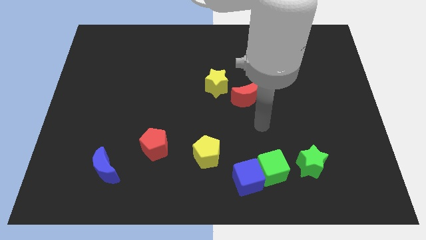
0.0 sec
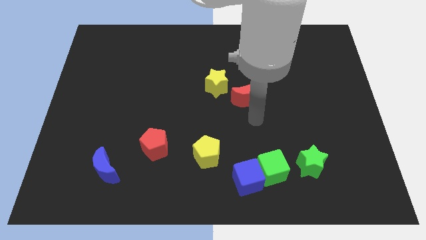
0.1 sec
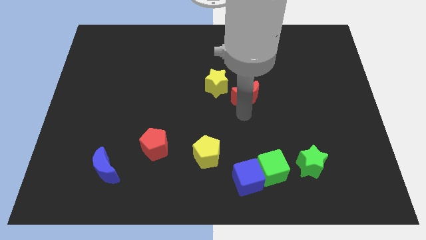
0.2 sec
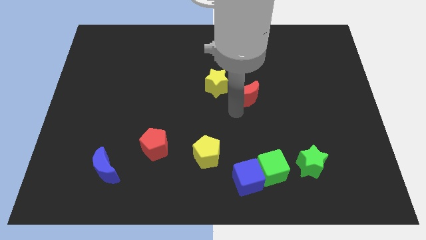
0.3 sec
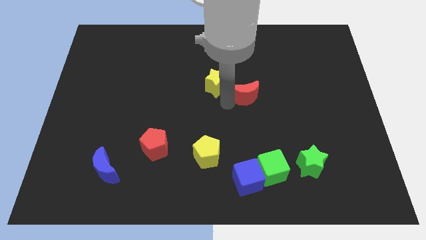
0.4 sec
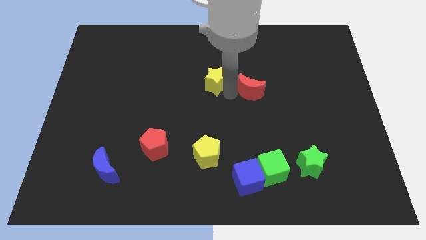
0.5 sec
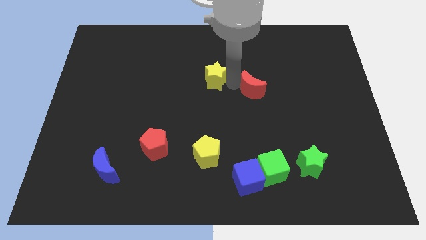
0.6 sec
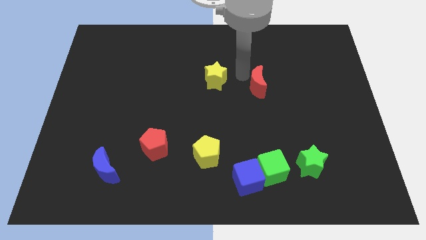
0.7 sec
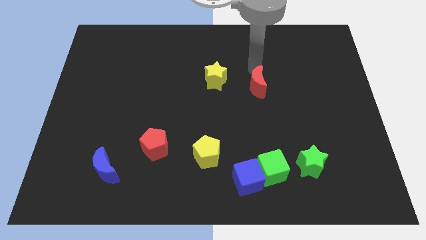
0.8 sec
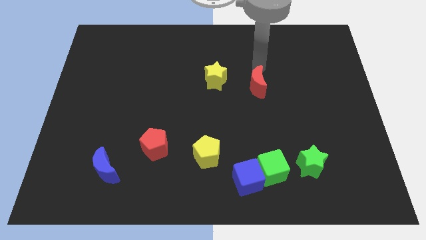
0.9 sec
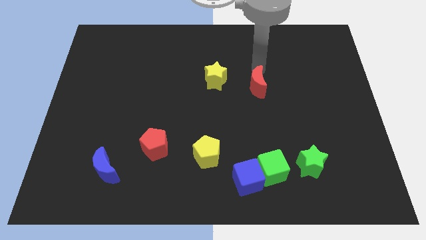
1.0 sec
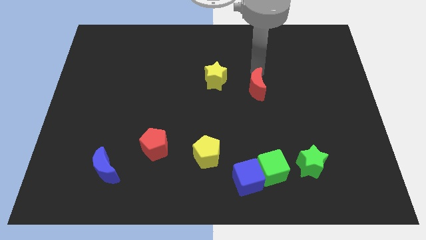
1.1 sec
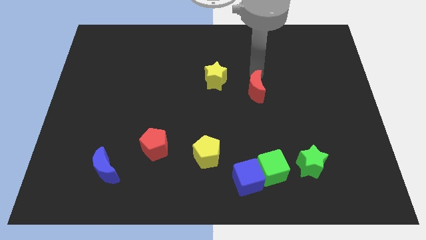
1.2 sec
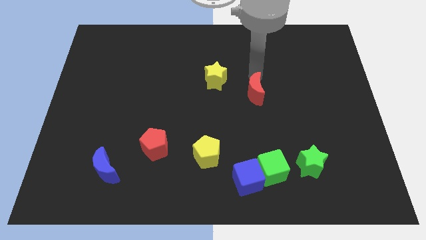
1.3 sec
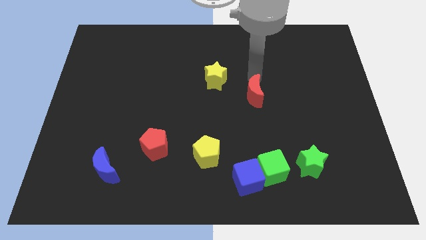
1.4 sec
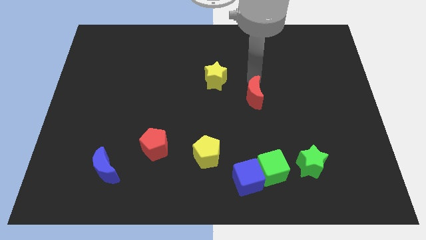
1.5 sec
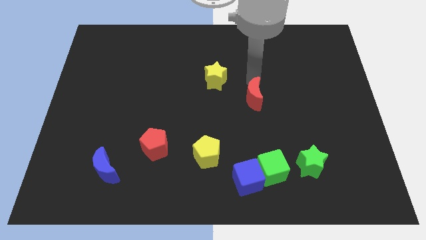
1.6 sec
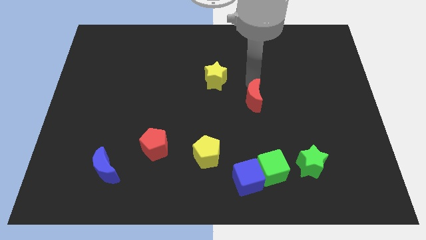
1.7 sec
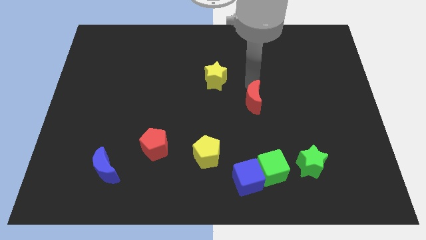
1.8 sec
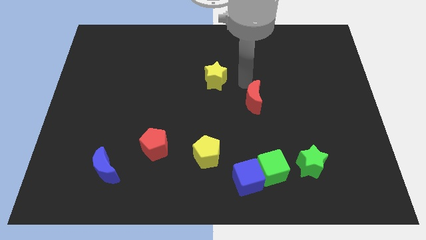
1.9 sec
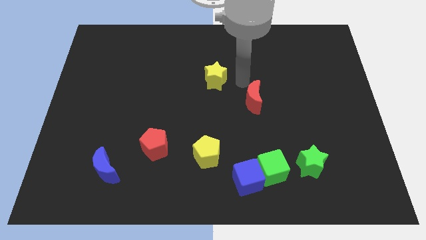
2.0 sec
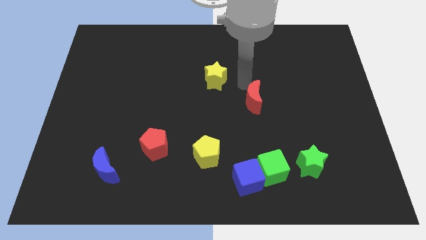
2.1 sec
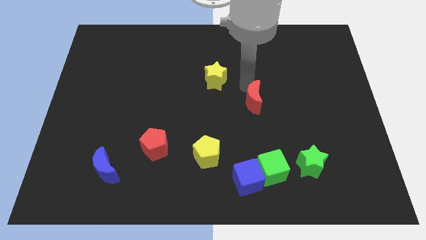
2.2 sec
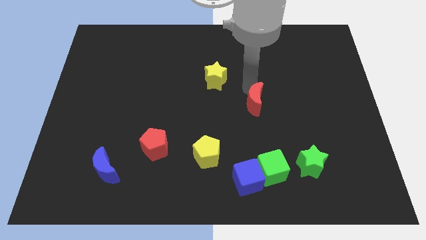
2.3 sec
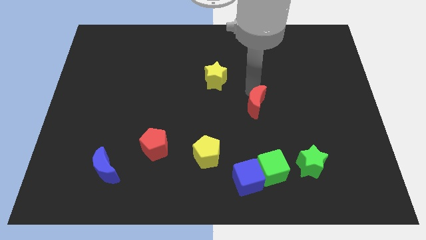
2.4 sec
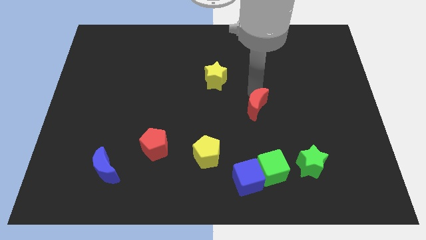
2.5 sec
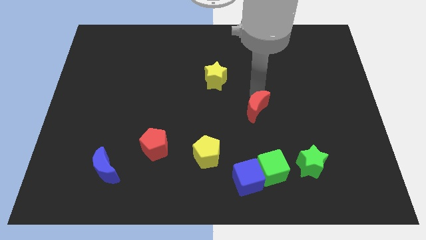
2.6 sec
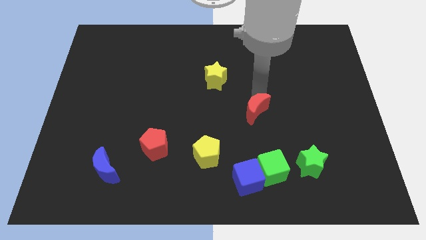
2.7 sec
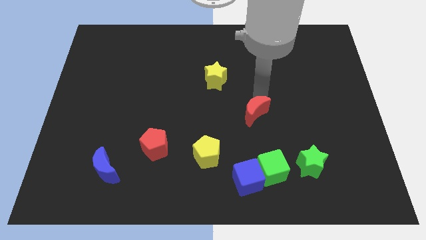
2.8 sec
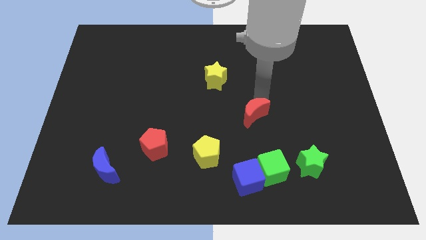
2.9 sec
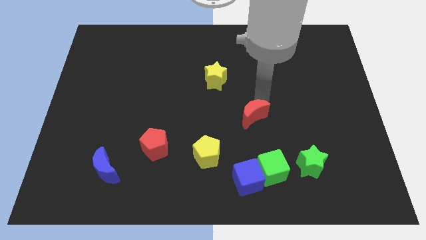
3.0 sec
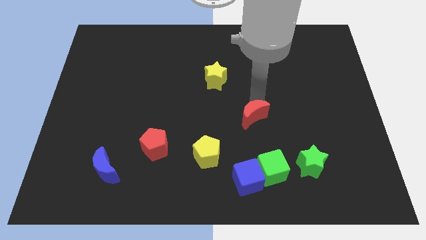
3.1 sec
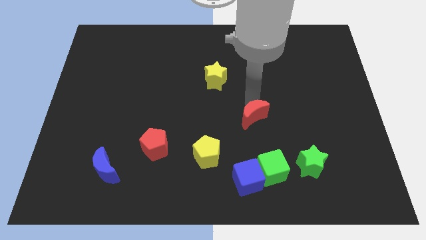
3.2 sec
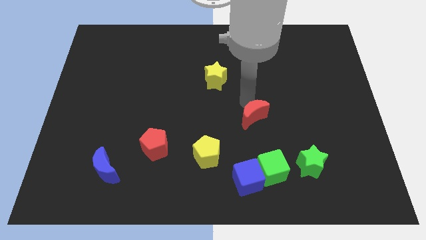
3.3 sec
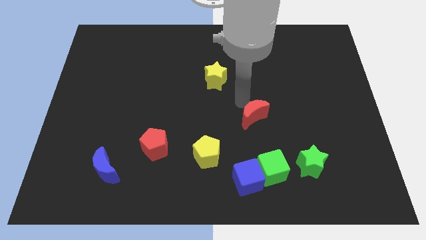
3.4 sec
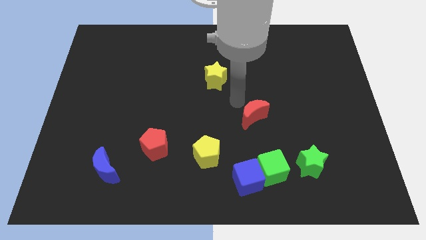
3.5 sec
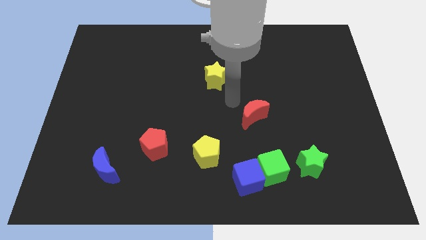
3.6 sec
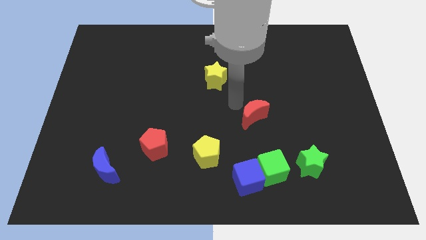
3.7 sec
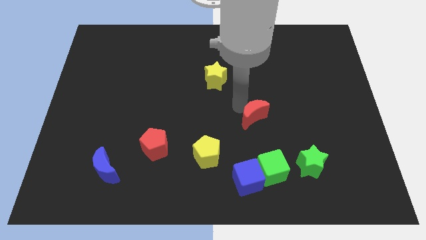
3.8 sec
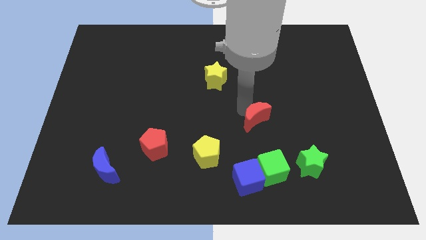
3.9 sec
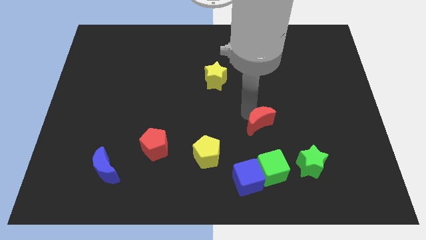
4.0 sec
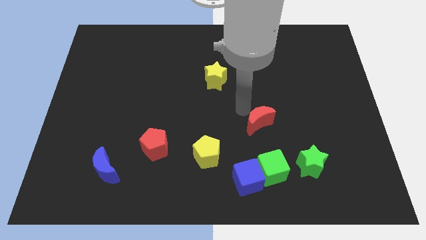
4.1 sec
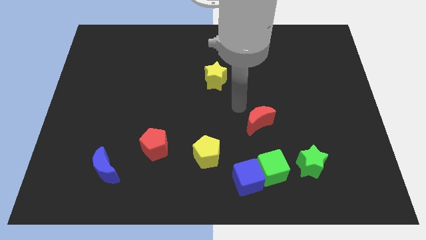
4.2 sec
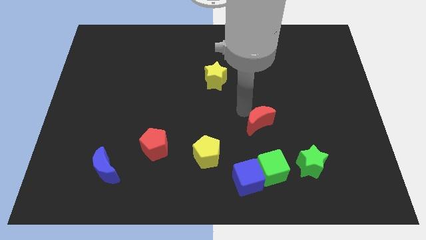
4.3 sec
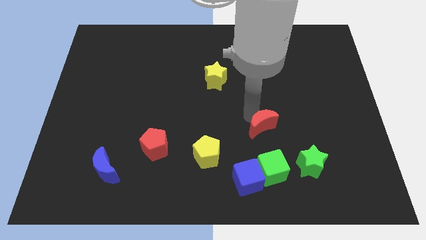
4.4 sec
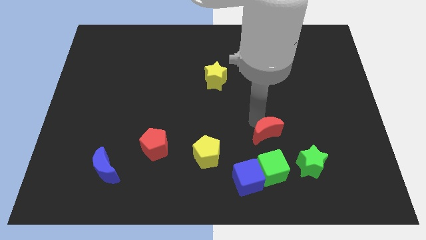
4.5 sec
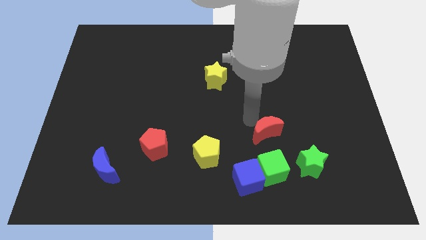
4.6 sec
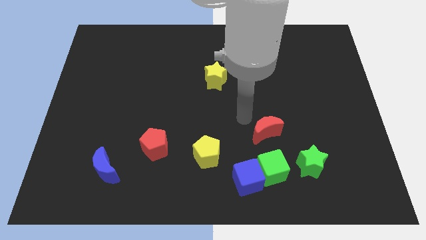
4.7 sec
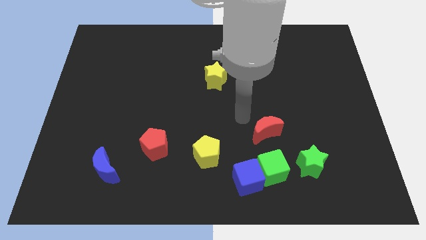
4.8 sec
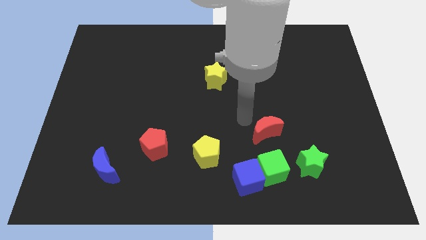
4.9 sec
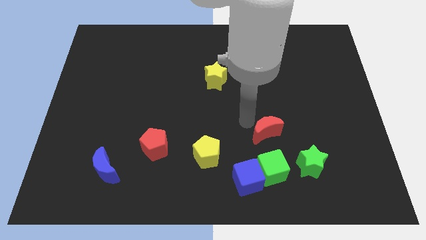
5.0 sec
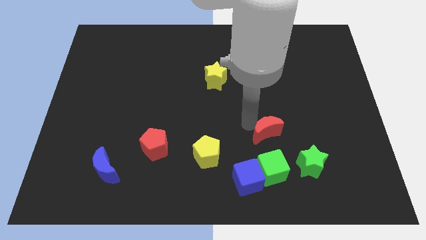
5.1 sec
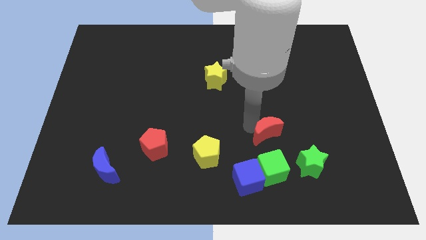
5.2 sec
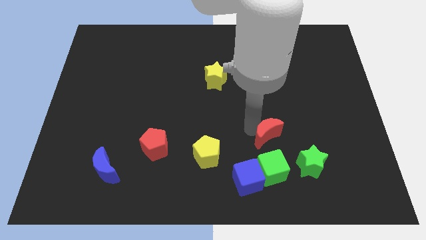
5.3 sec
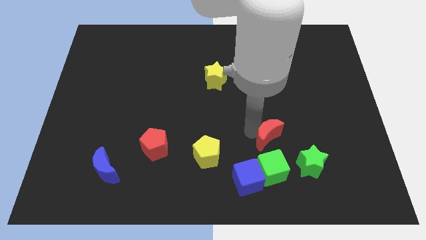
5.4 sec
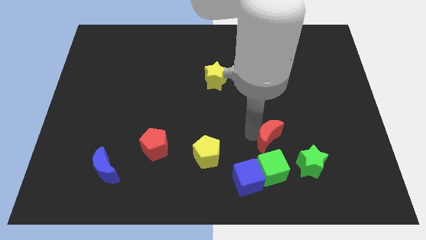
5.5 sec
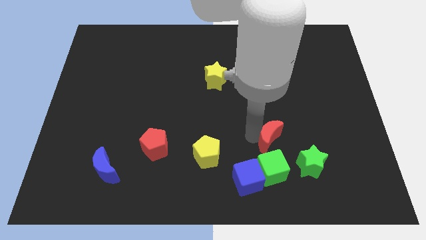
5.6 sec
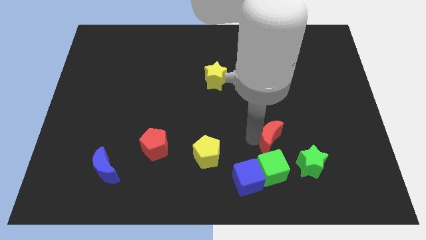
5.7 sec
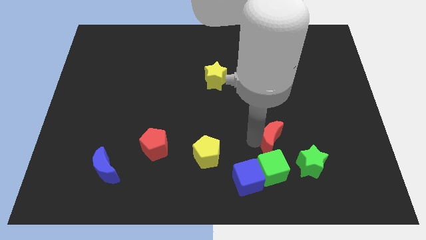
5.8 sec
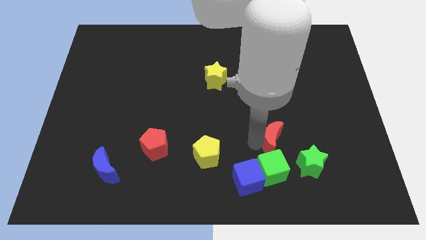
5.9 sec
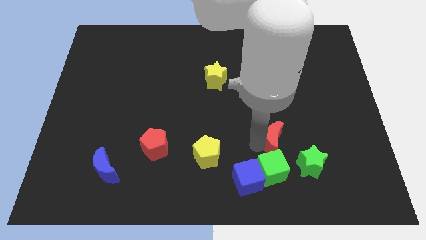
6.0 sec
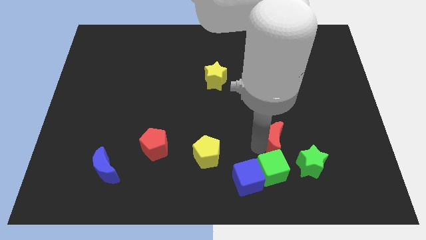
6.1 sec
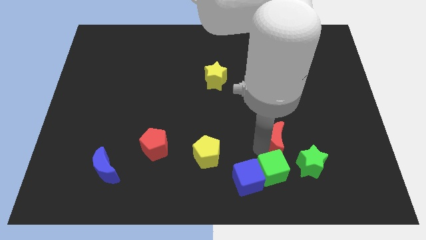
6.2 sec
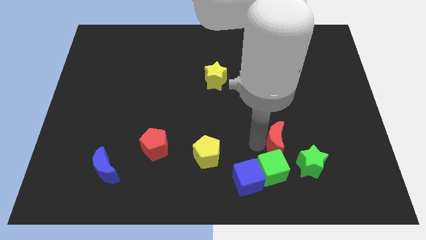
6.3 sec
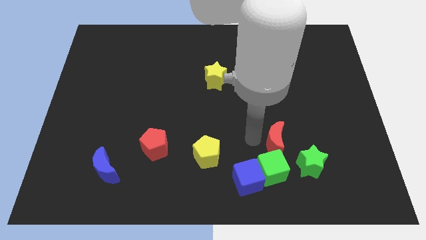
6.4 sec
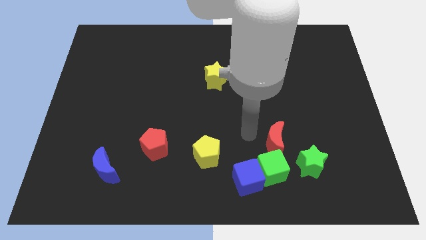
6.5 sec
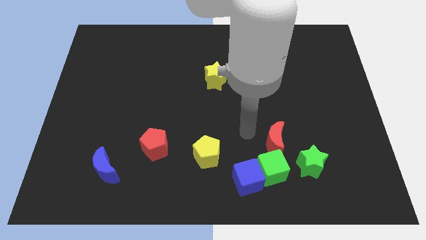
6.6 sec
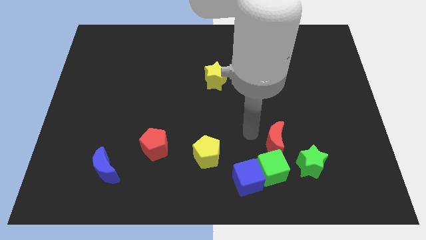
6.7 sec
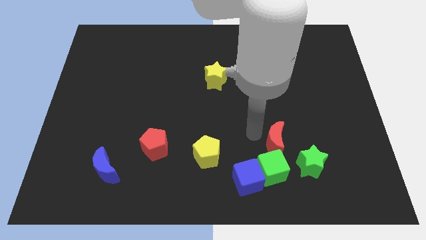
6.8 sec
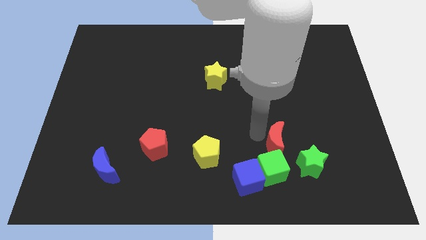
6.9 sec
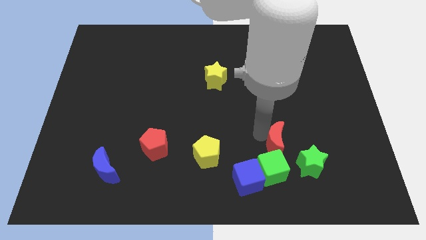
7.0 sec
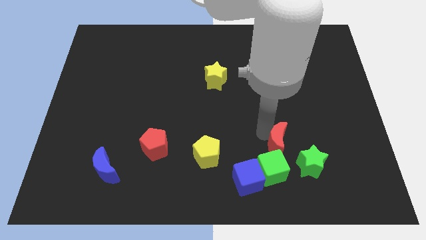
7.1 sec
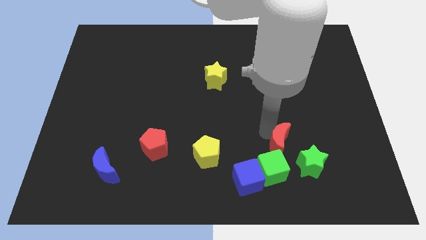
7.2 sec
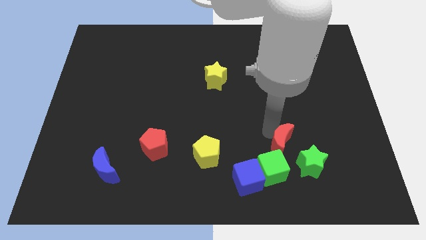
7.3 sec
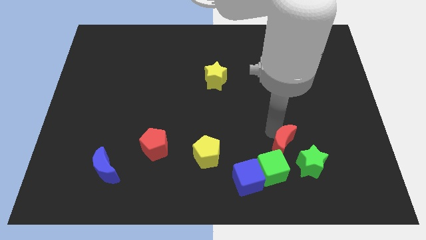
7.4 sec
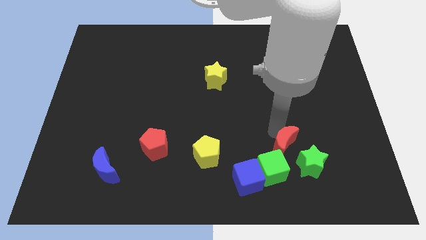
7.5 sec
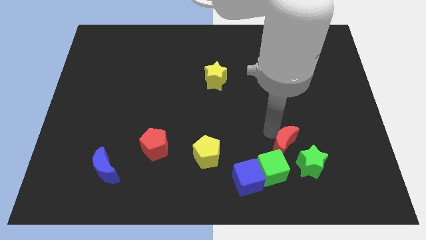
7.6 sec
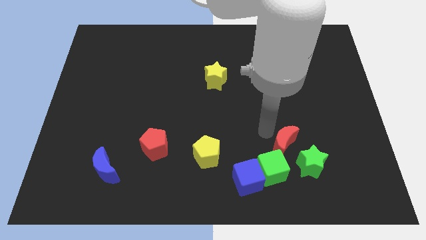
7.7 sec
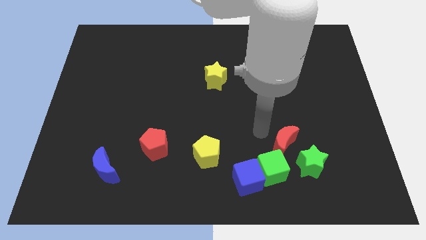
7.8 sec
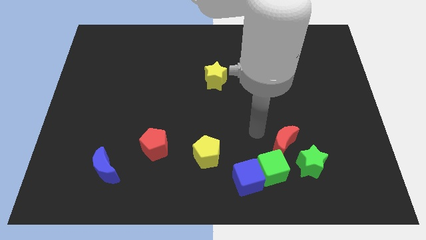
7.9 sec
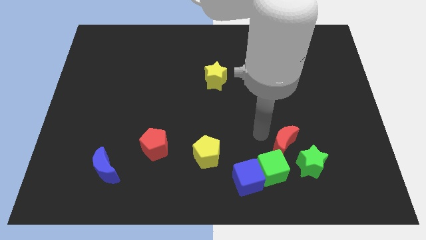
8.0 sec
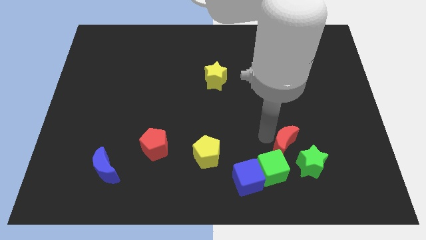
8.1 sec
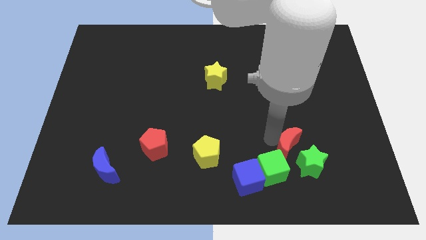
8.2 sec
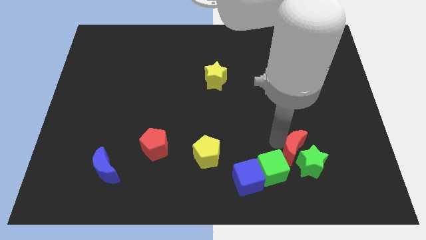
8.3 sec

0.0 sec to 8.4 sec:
push the red moon towards the green star
